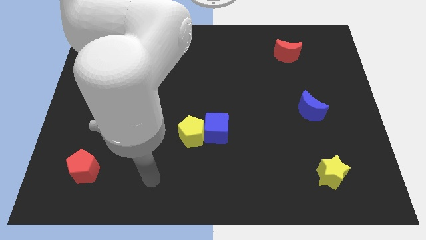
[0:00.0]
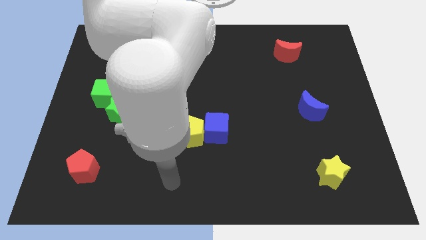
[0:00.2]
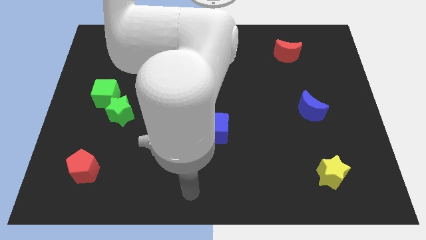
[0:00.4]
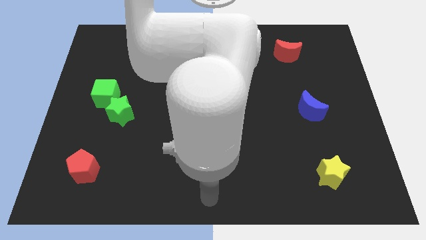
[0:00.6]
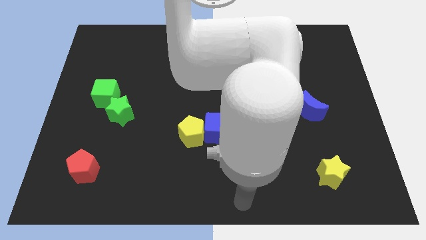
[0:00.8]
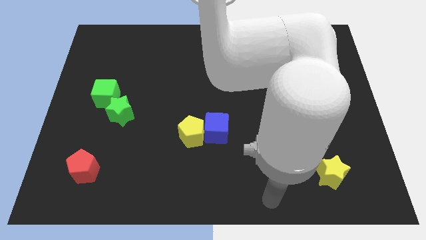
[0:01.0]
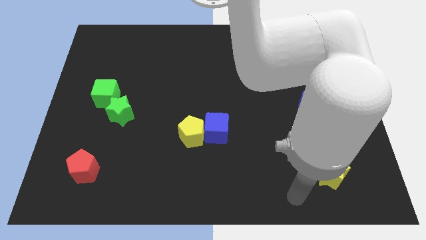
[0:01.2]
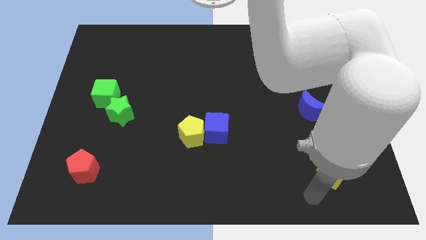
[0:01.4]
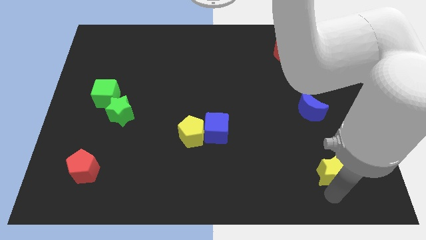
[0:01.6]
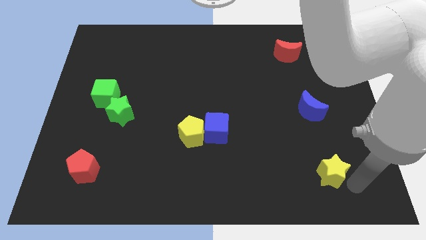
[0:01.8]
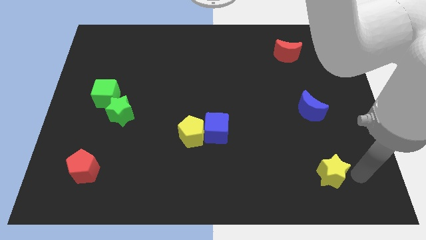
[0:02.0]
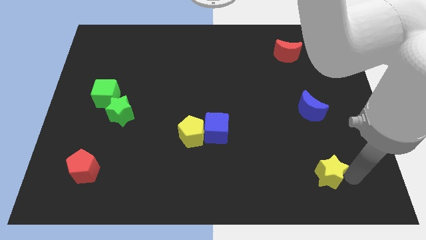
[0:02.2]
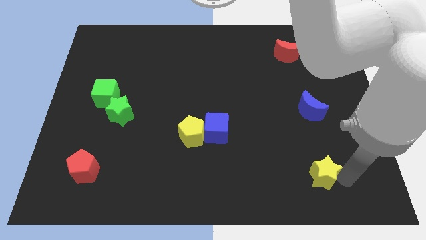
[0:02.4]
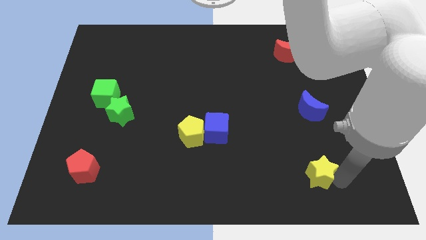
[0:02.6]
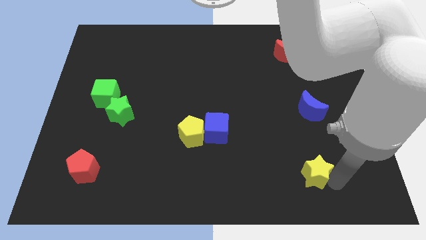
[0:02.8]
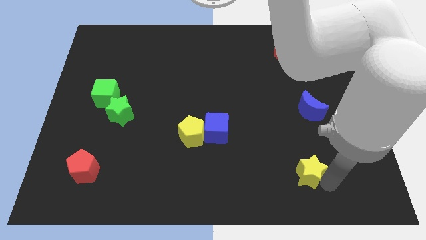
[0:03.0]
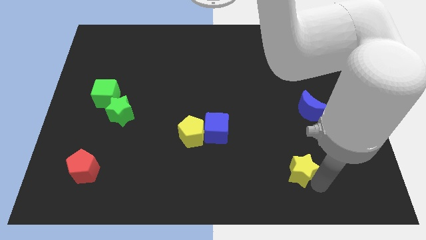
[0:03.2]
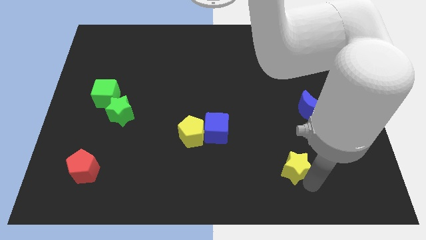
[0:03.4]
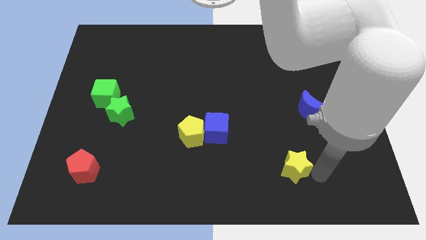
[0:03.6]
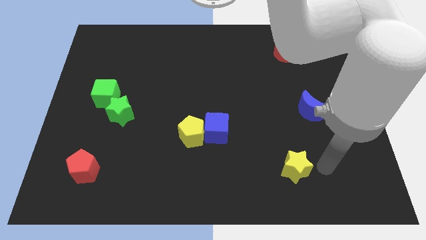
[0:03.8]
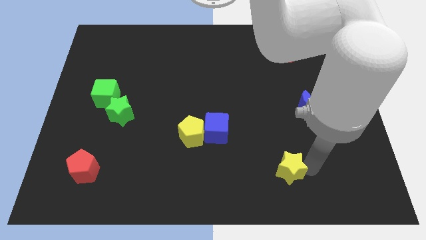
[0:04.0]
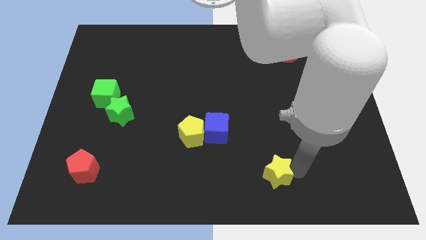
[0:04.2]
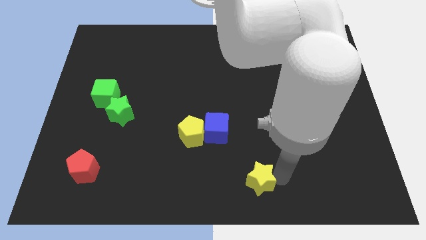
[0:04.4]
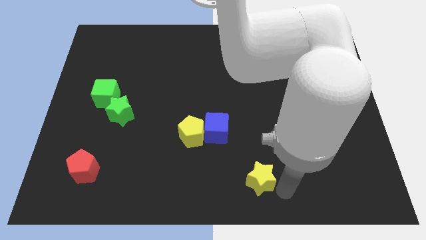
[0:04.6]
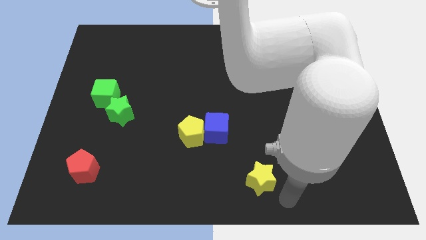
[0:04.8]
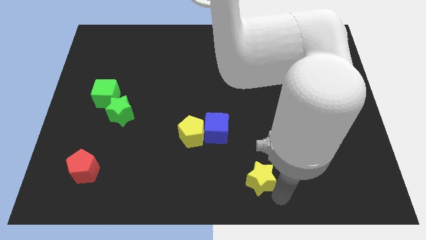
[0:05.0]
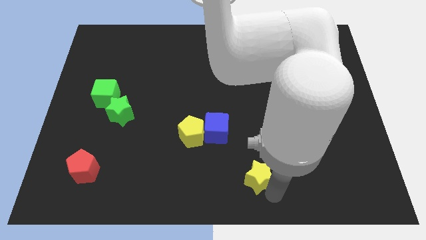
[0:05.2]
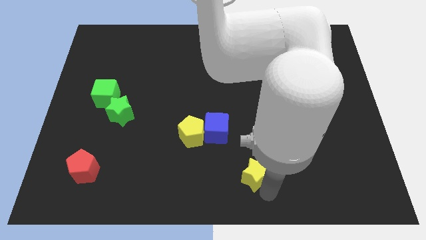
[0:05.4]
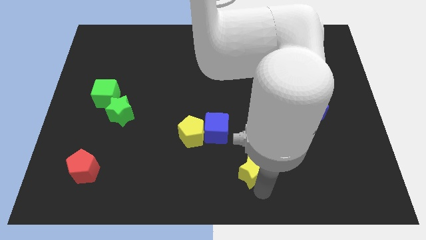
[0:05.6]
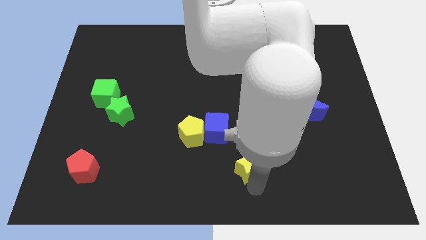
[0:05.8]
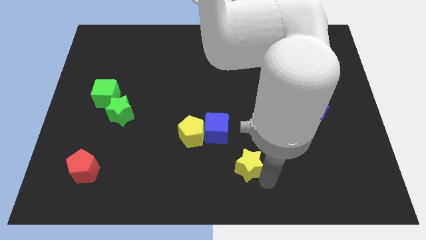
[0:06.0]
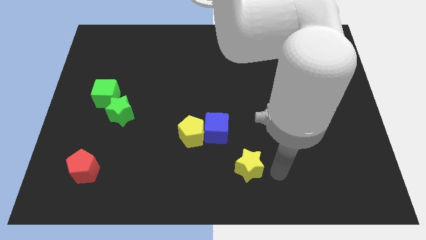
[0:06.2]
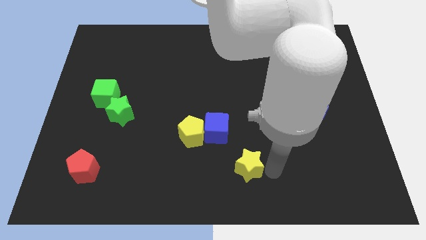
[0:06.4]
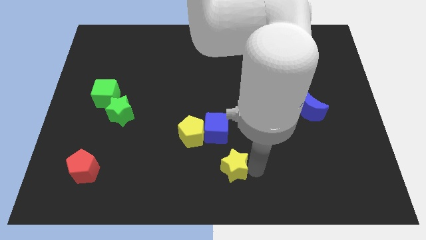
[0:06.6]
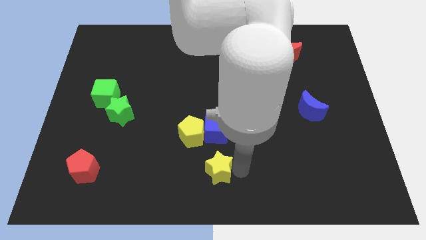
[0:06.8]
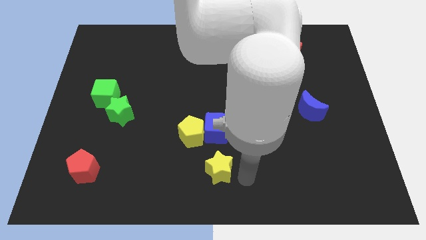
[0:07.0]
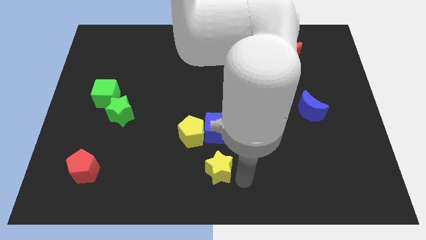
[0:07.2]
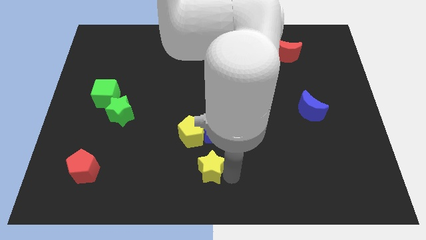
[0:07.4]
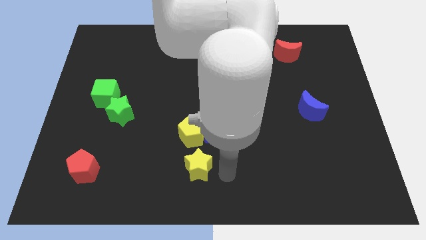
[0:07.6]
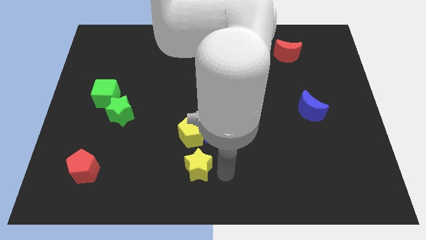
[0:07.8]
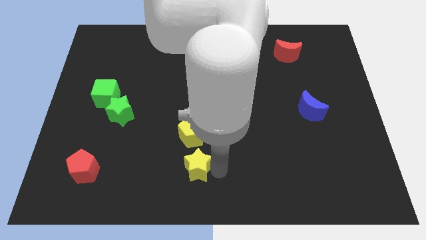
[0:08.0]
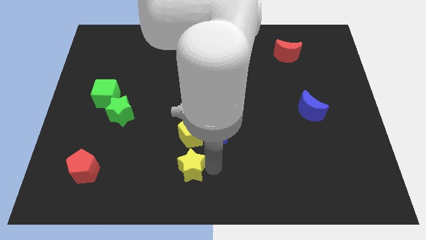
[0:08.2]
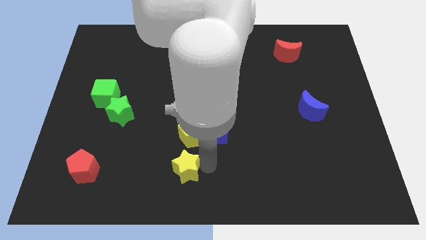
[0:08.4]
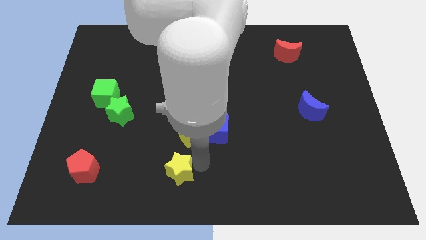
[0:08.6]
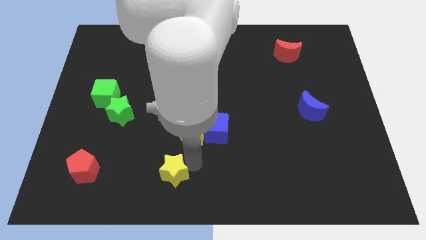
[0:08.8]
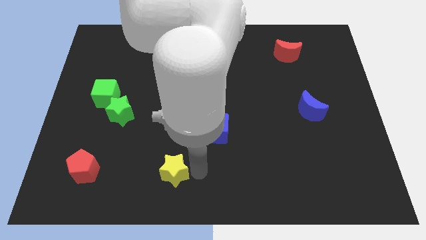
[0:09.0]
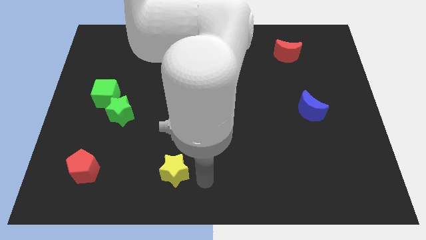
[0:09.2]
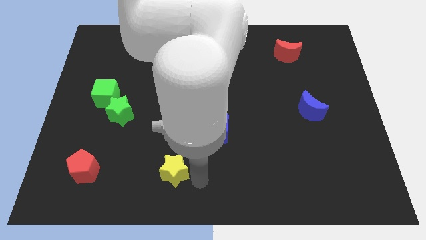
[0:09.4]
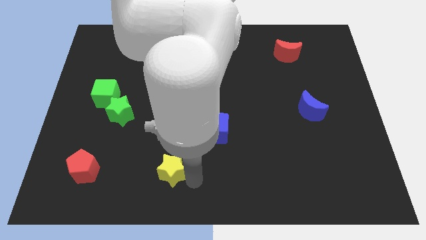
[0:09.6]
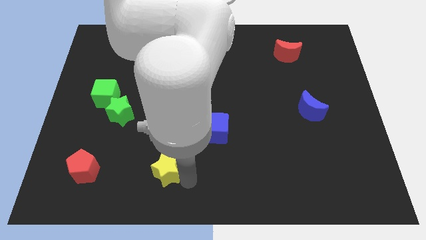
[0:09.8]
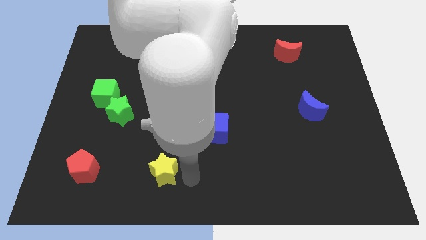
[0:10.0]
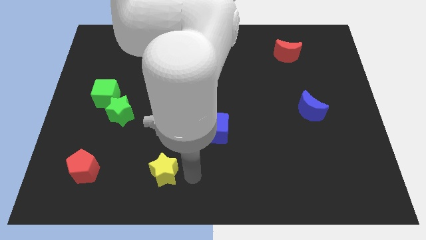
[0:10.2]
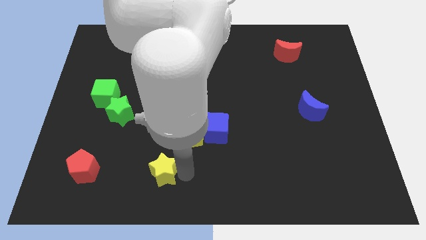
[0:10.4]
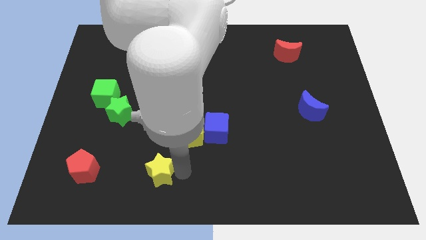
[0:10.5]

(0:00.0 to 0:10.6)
move the yellow star just right of the red pentagon

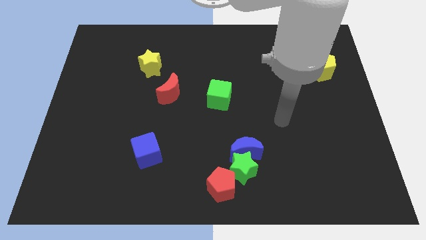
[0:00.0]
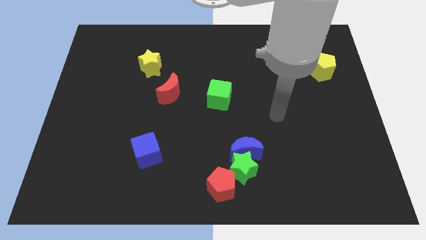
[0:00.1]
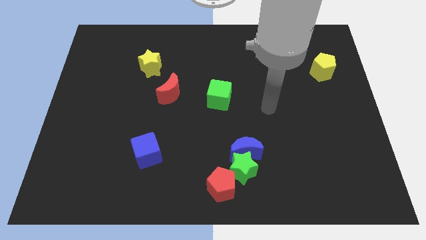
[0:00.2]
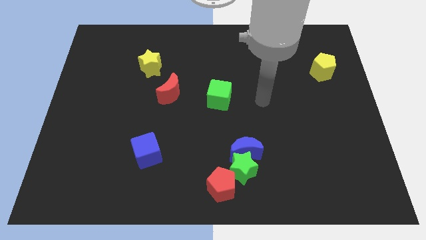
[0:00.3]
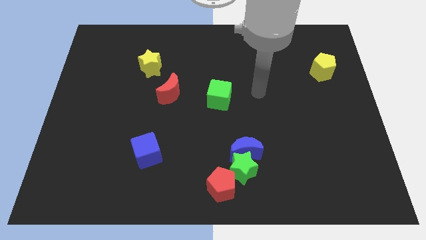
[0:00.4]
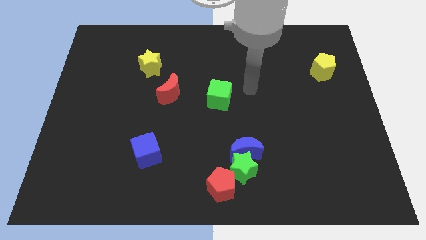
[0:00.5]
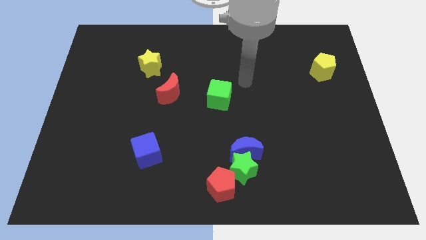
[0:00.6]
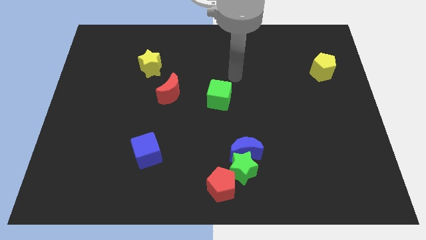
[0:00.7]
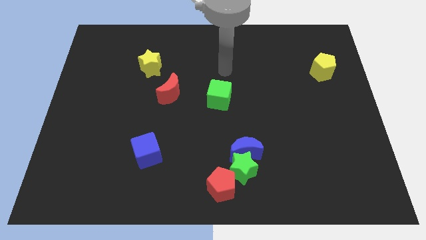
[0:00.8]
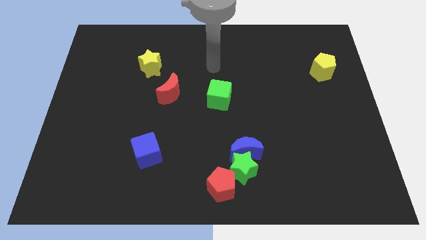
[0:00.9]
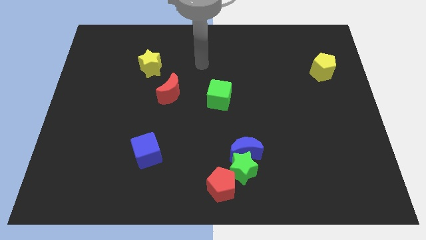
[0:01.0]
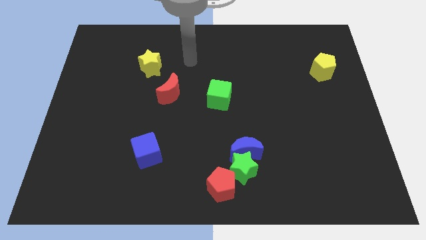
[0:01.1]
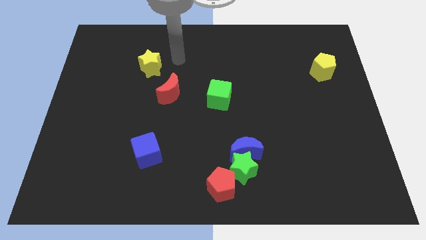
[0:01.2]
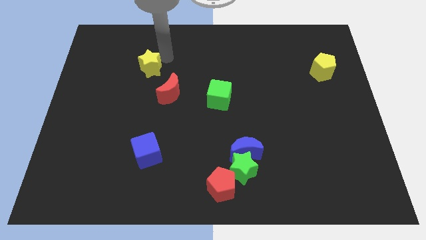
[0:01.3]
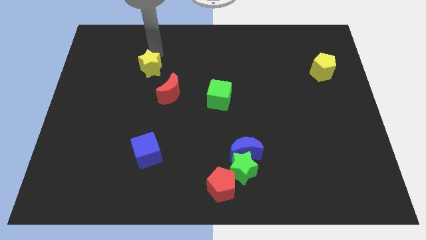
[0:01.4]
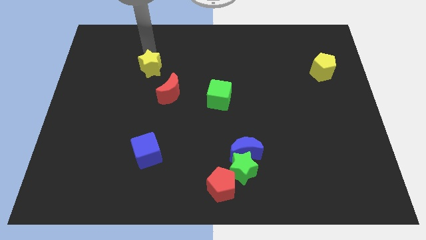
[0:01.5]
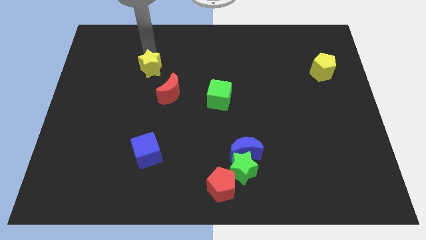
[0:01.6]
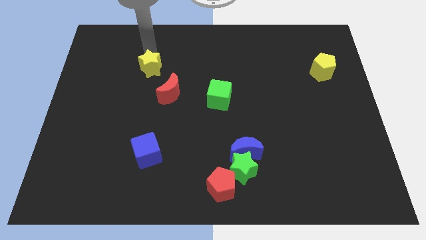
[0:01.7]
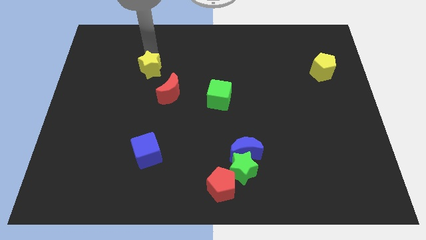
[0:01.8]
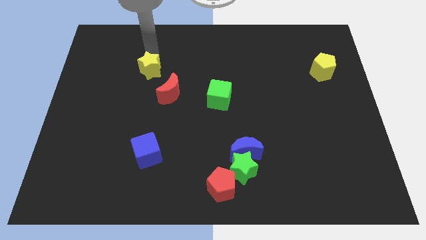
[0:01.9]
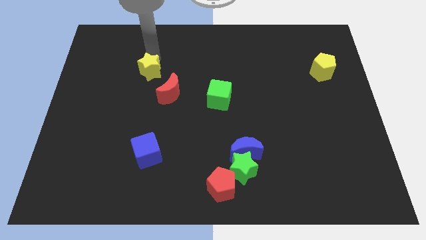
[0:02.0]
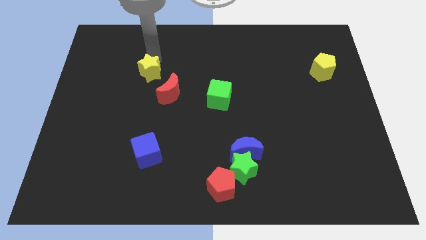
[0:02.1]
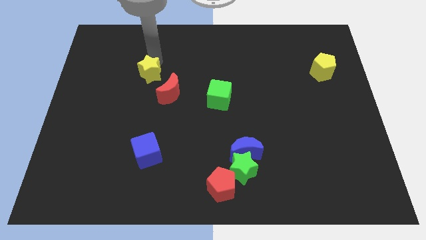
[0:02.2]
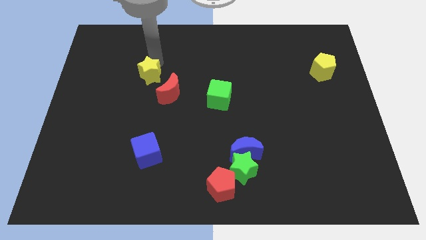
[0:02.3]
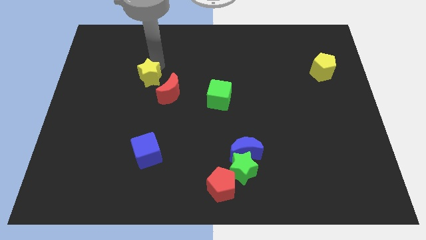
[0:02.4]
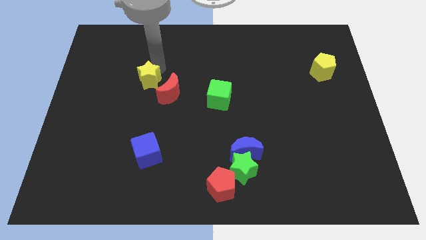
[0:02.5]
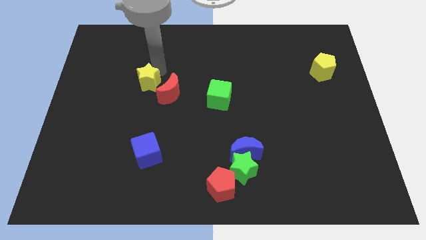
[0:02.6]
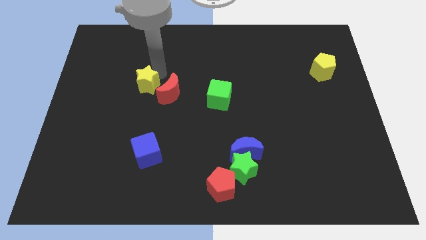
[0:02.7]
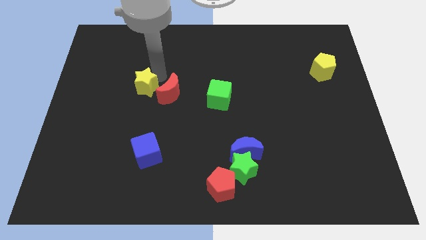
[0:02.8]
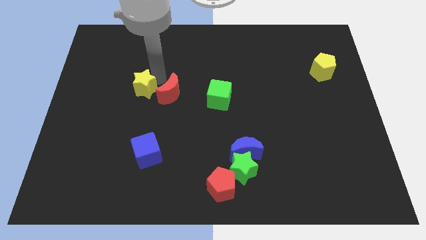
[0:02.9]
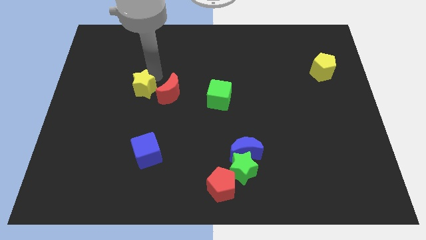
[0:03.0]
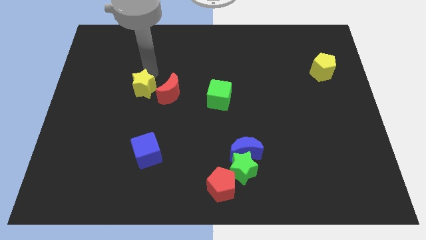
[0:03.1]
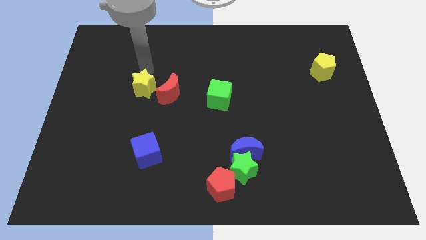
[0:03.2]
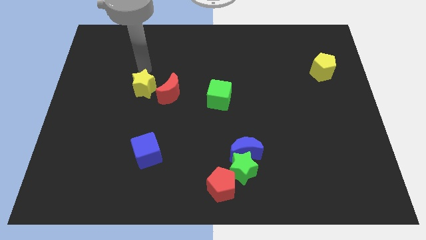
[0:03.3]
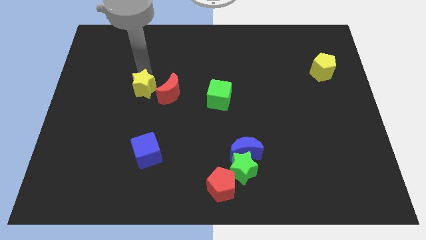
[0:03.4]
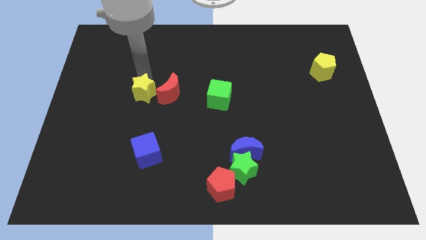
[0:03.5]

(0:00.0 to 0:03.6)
put the yellow star to the bottom left of the red moon
